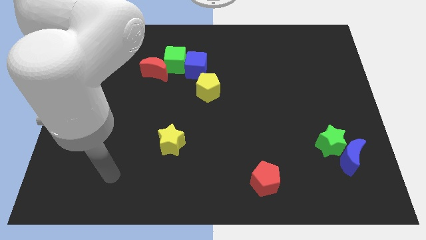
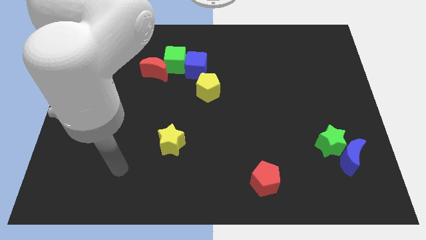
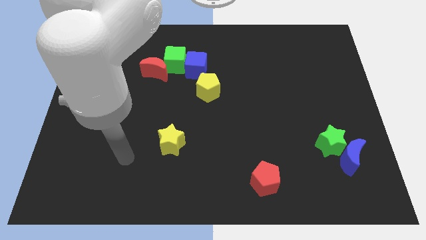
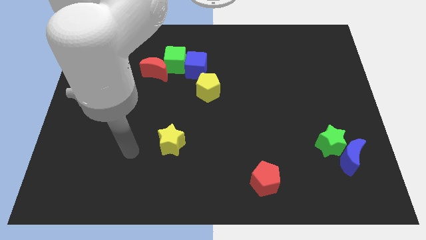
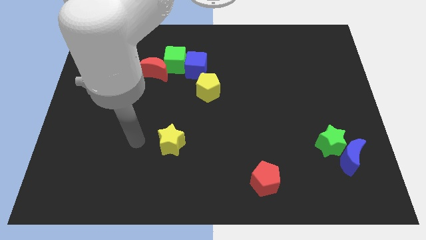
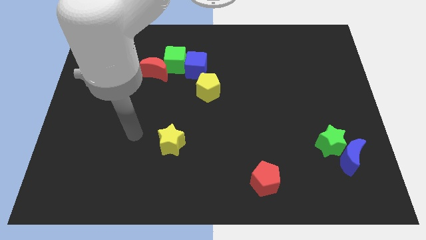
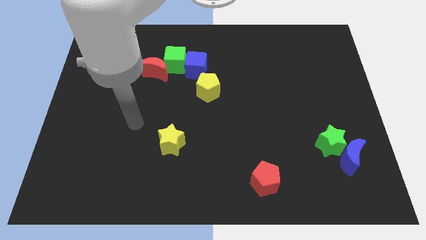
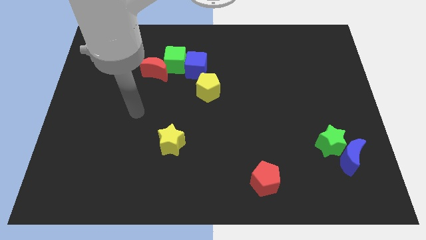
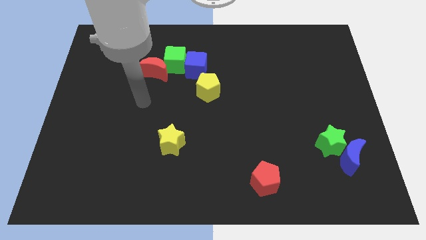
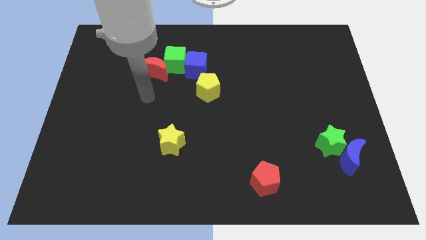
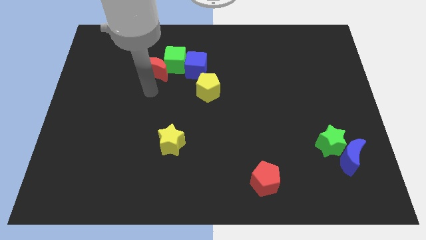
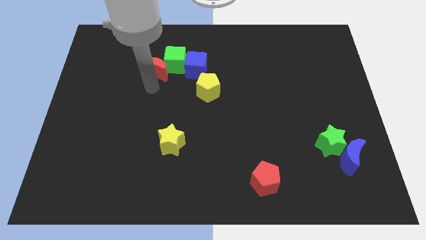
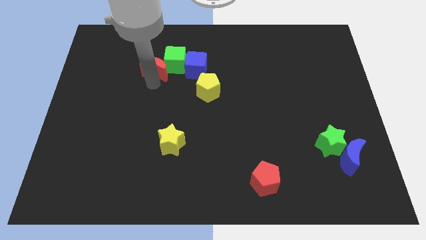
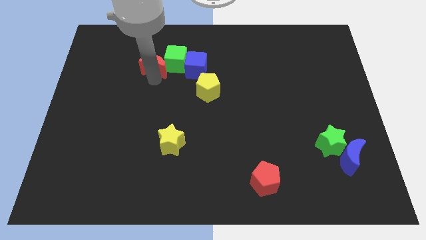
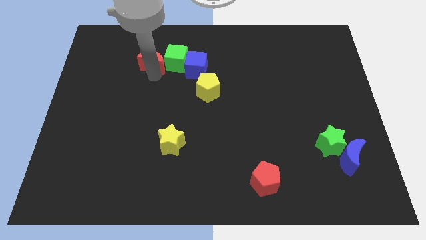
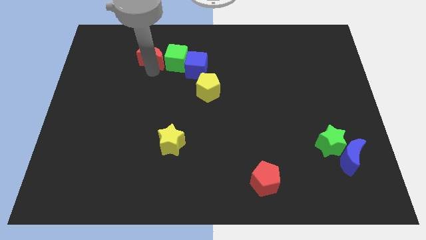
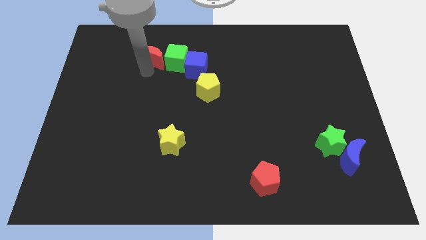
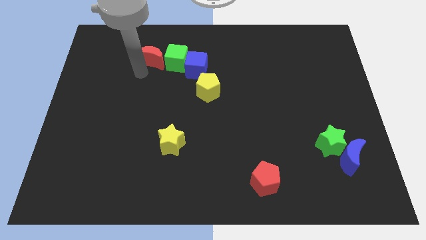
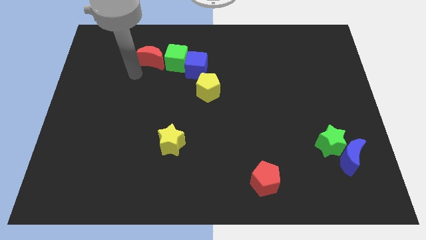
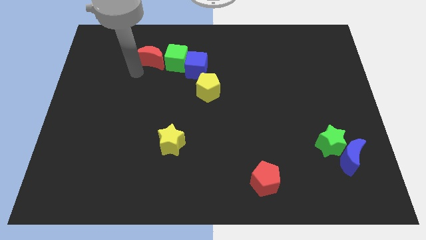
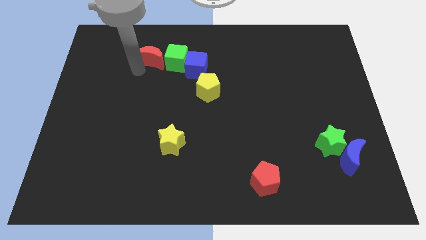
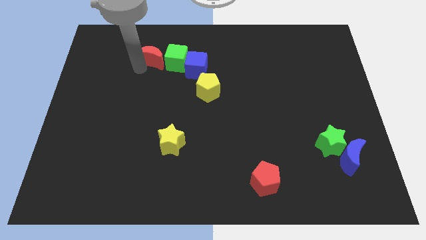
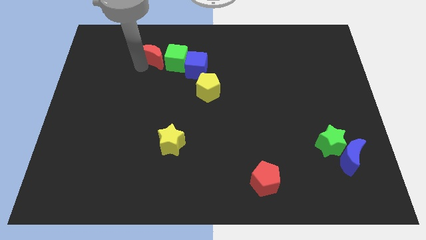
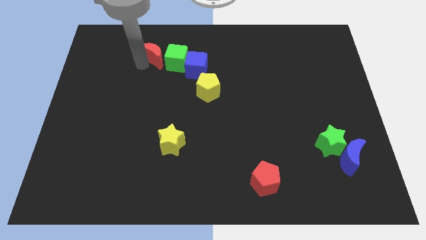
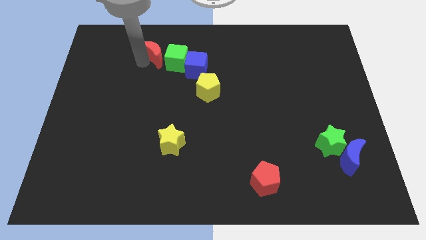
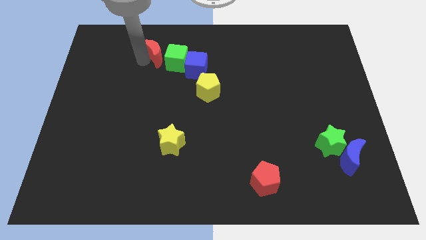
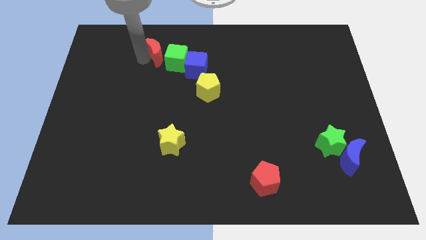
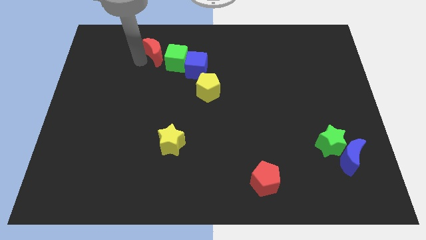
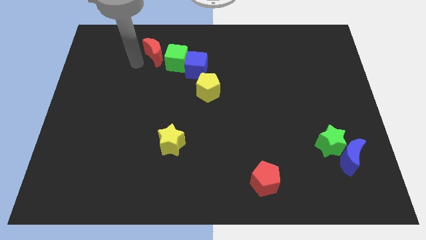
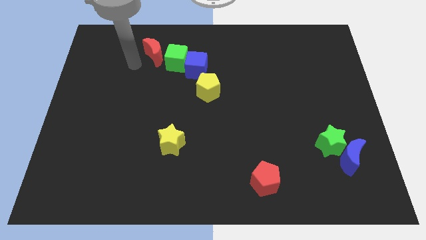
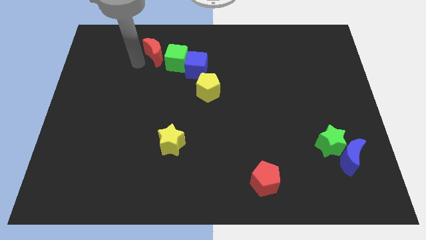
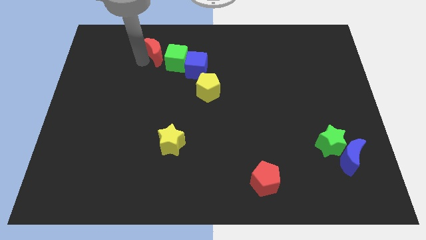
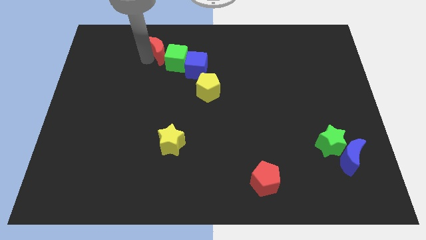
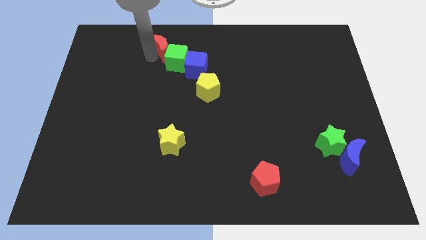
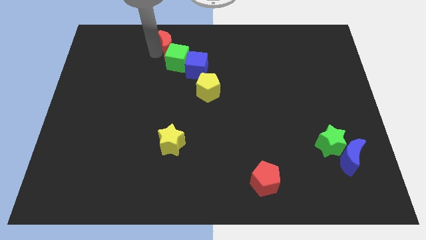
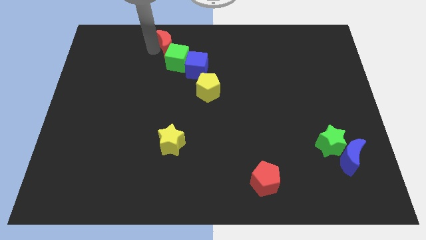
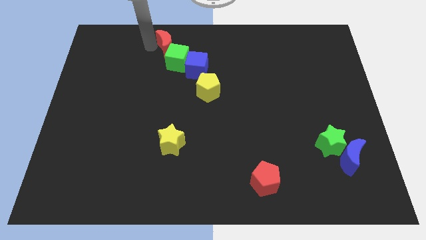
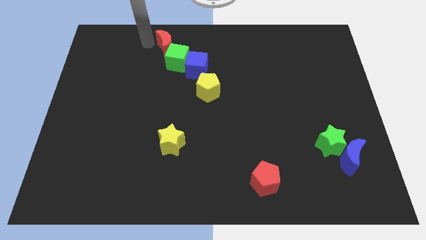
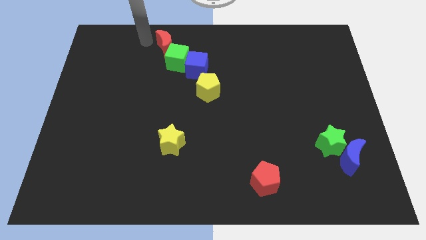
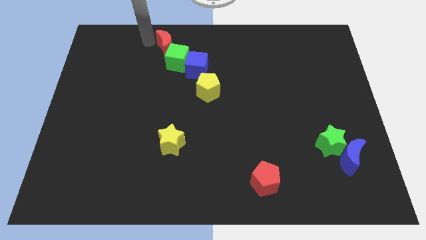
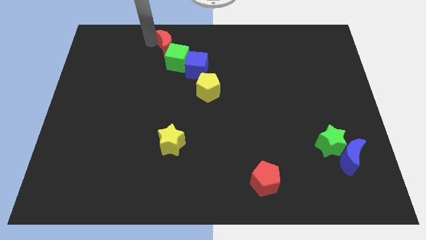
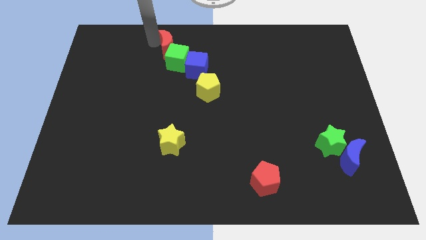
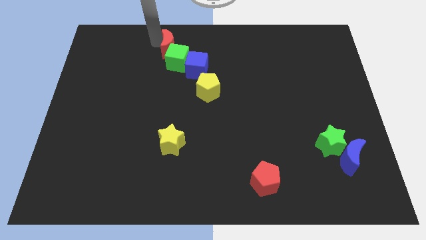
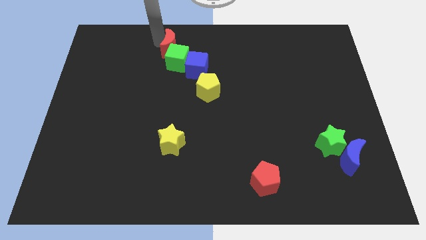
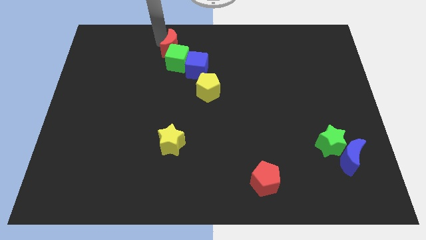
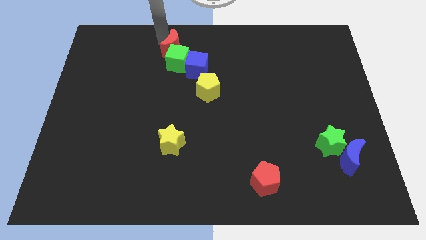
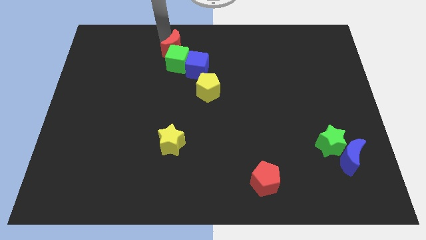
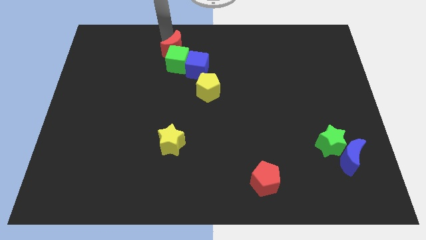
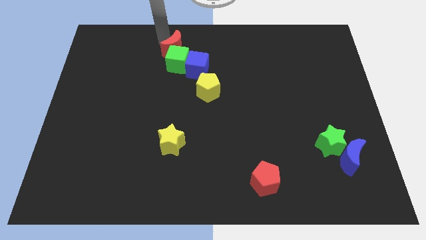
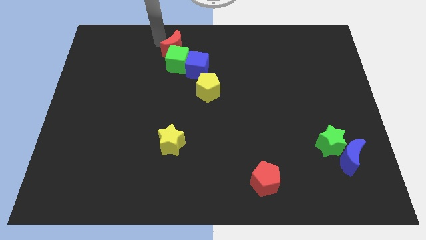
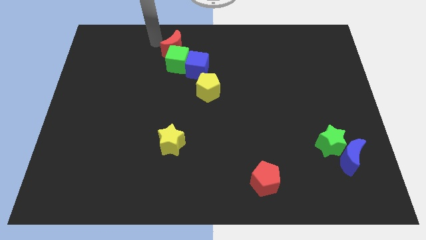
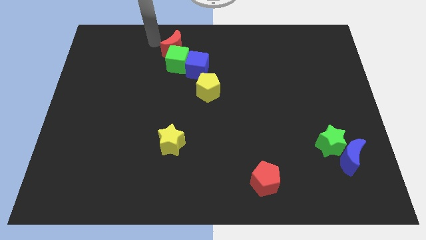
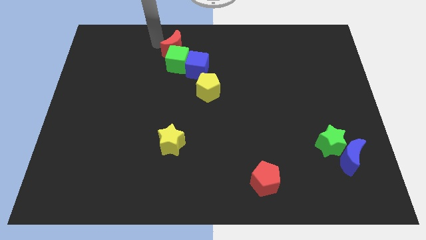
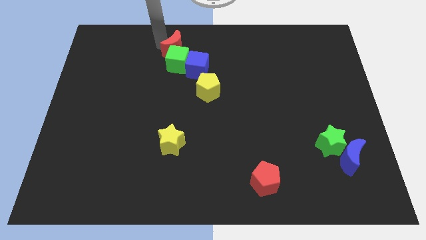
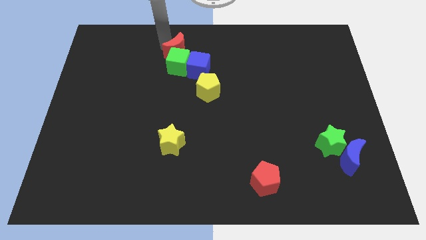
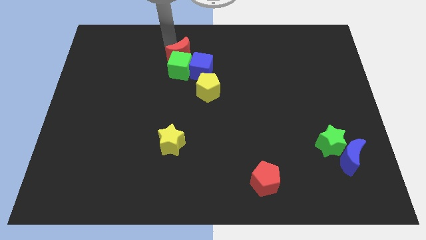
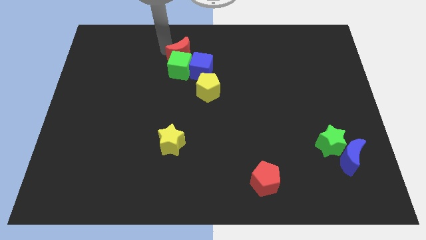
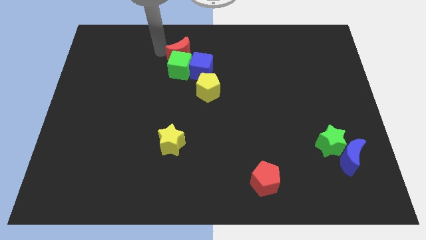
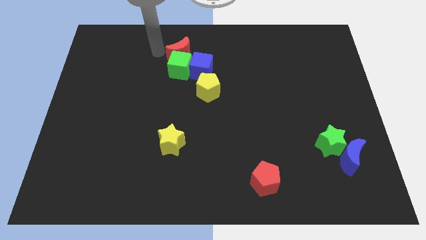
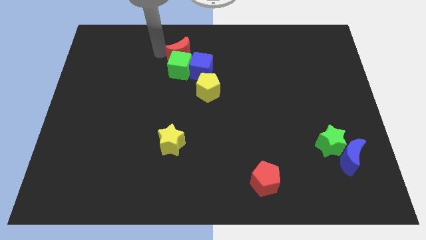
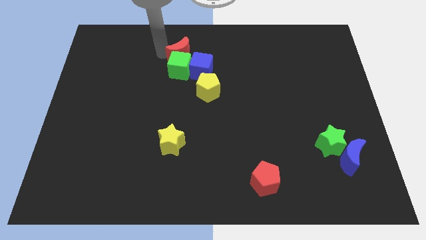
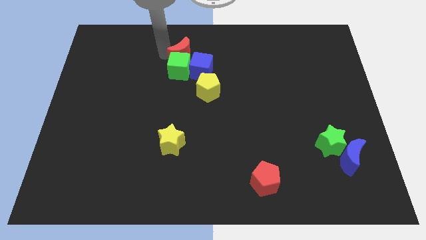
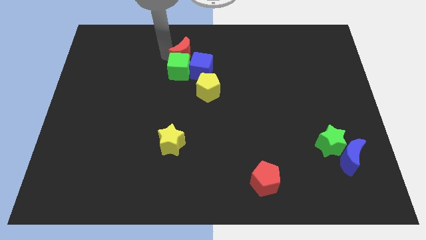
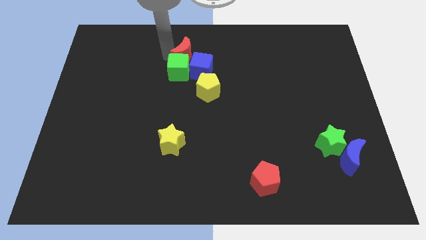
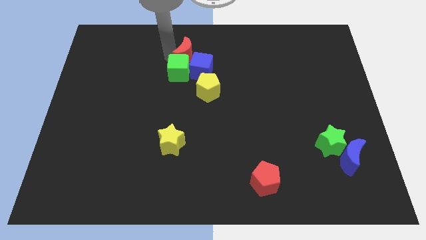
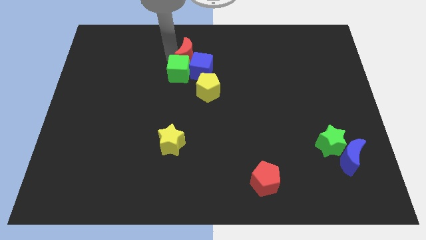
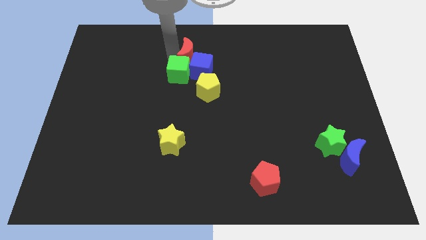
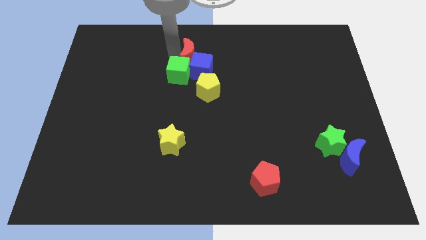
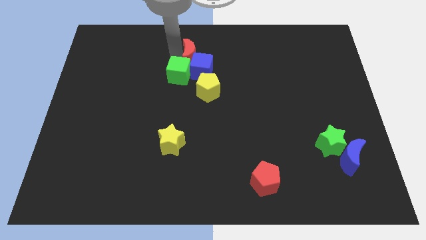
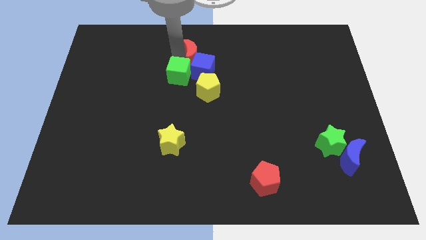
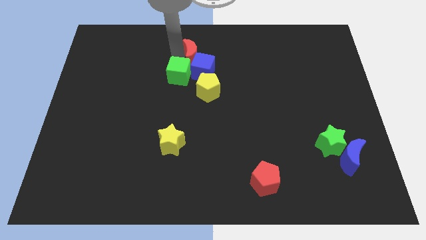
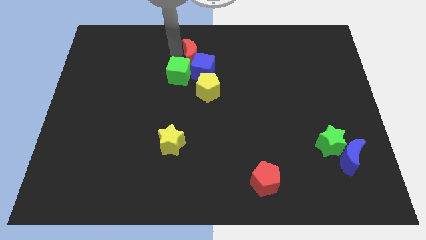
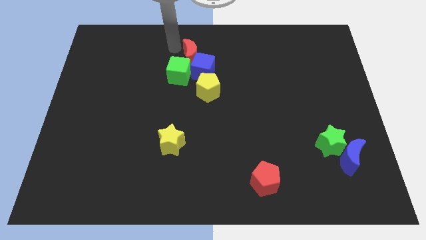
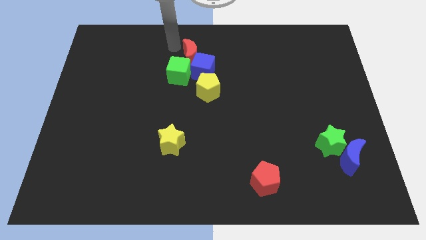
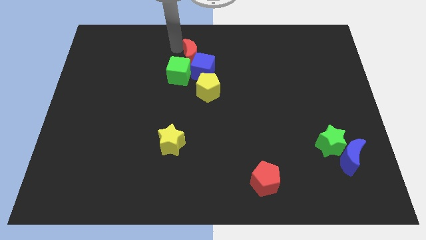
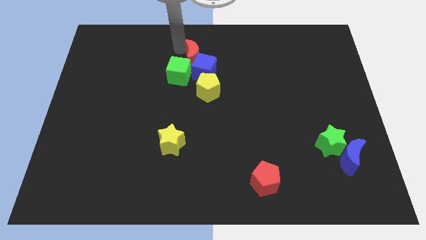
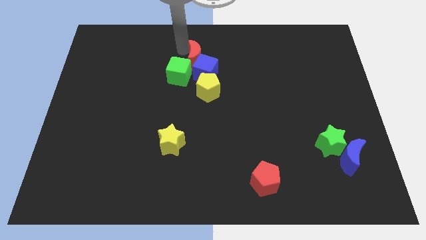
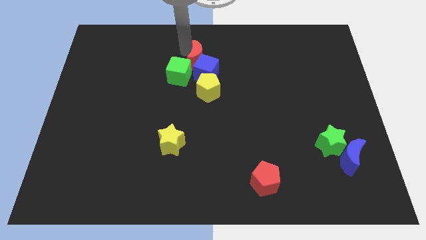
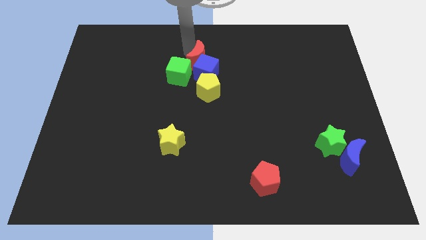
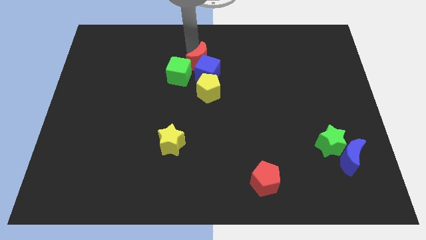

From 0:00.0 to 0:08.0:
slide the red moon to the right side of the green cube
